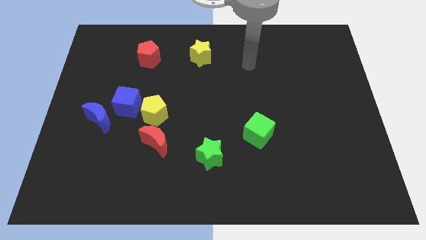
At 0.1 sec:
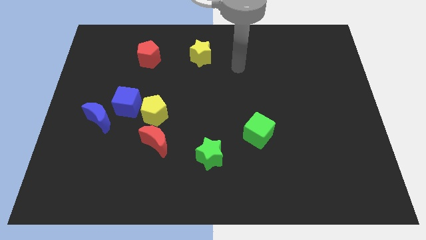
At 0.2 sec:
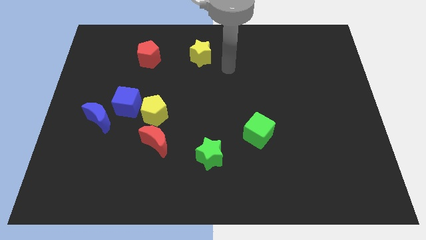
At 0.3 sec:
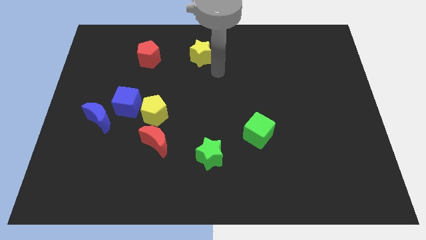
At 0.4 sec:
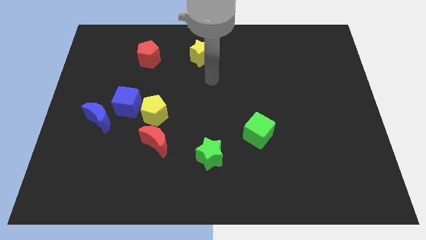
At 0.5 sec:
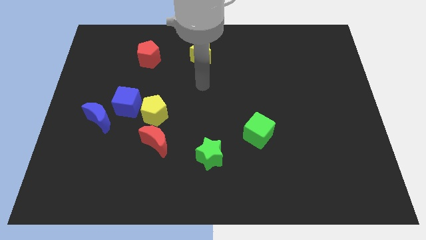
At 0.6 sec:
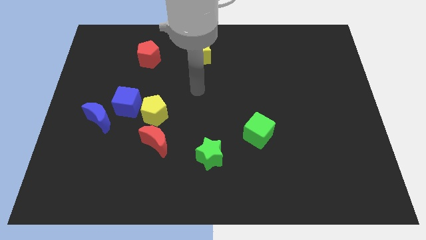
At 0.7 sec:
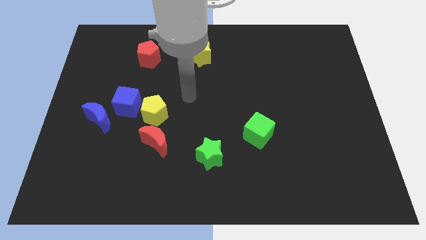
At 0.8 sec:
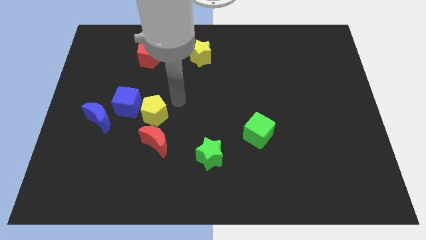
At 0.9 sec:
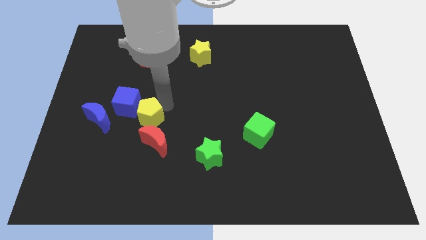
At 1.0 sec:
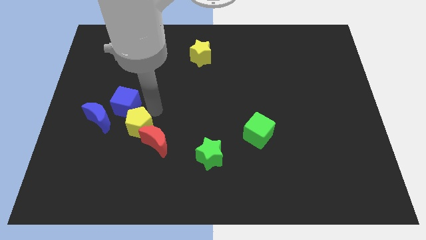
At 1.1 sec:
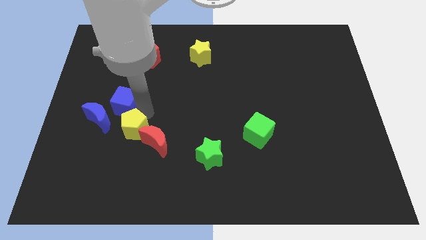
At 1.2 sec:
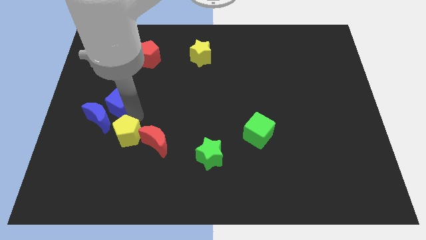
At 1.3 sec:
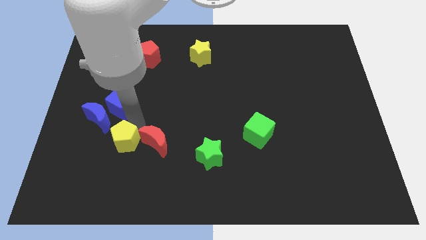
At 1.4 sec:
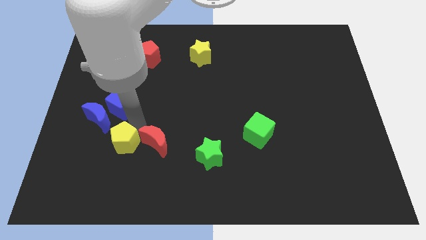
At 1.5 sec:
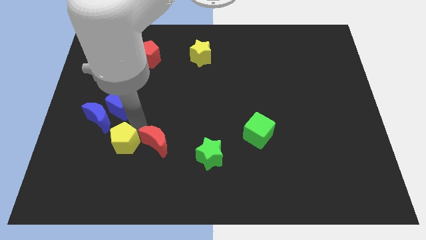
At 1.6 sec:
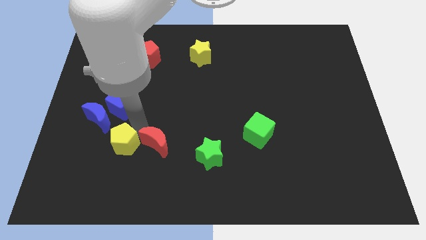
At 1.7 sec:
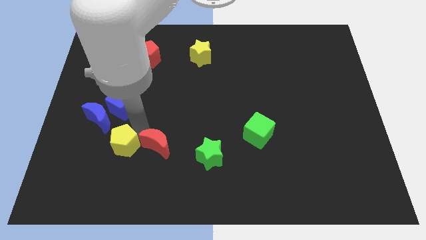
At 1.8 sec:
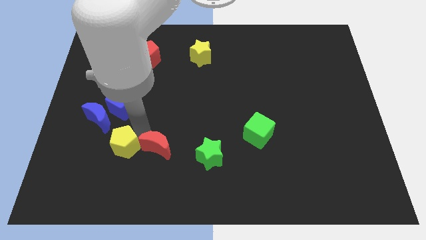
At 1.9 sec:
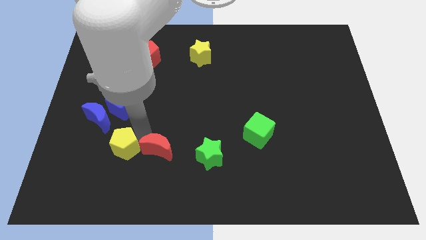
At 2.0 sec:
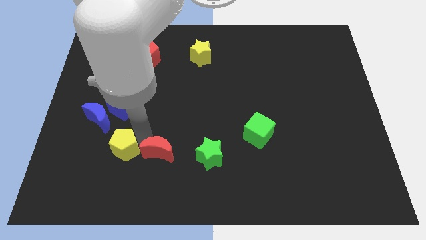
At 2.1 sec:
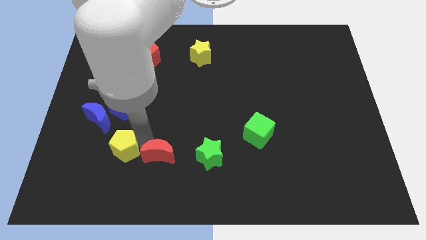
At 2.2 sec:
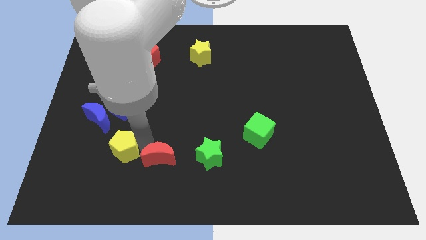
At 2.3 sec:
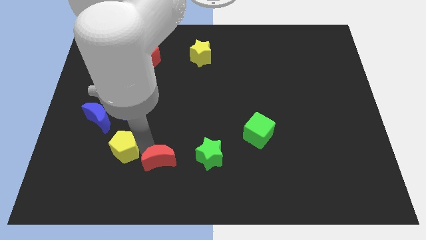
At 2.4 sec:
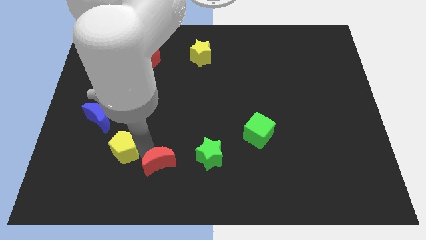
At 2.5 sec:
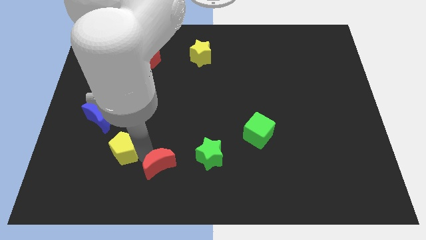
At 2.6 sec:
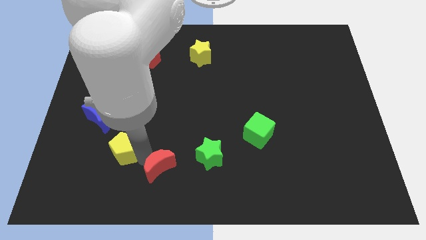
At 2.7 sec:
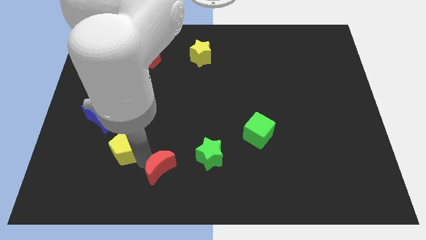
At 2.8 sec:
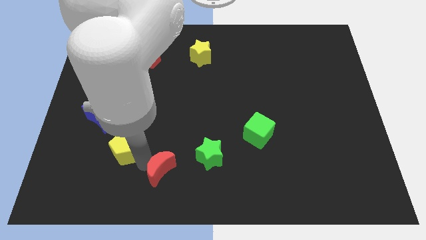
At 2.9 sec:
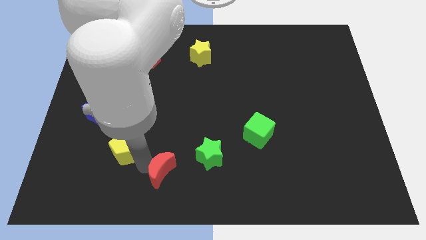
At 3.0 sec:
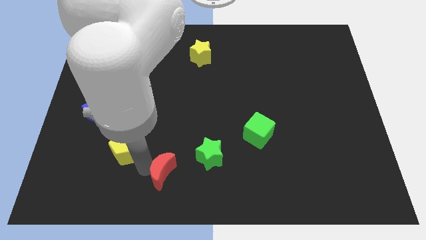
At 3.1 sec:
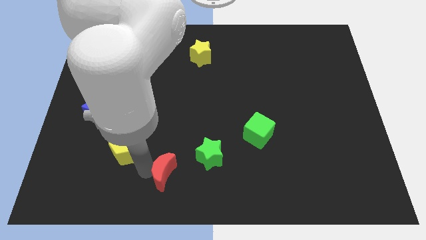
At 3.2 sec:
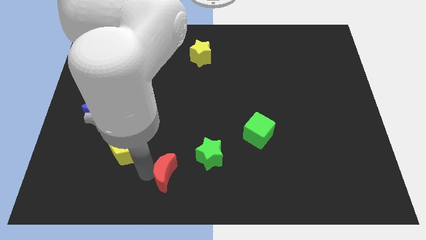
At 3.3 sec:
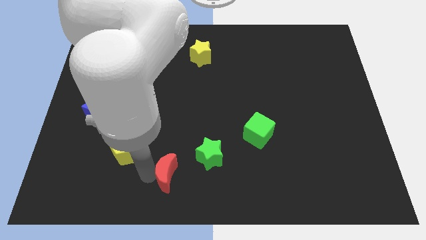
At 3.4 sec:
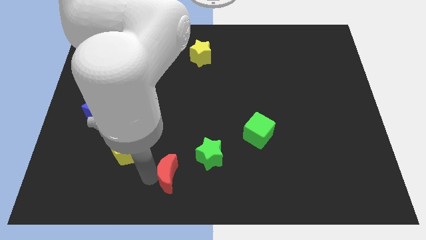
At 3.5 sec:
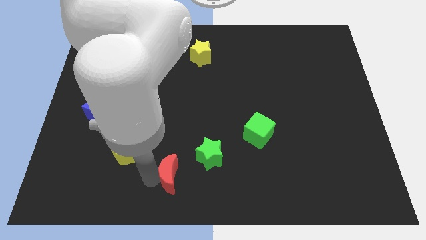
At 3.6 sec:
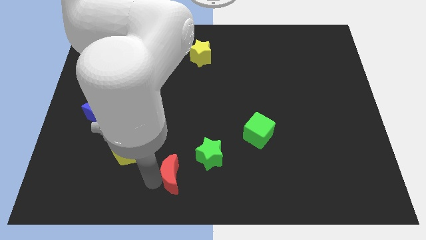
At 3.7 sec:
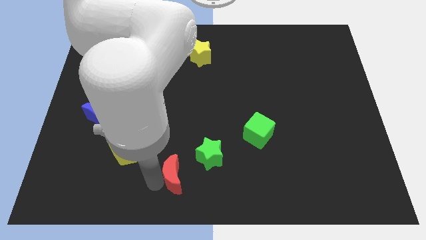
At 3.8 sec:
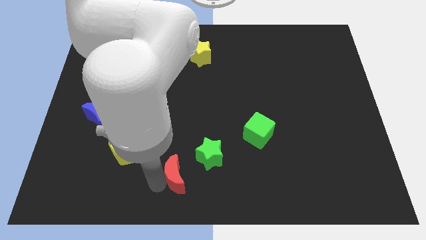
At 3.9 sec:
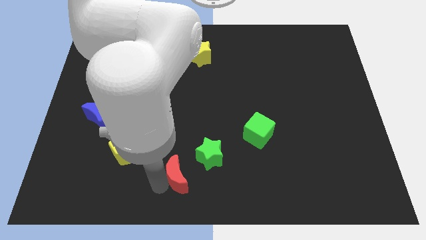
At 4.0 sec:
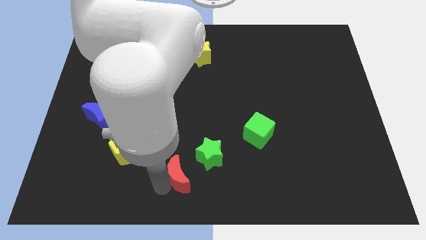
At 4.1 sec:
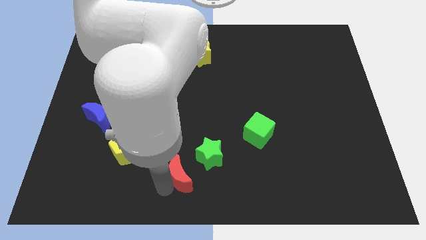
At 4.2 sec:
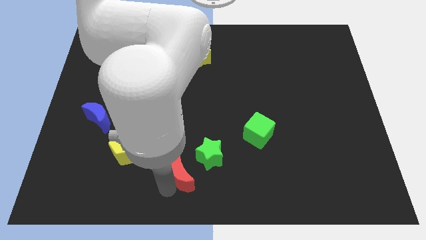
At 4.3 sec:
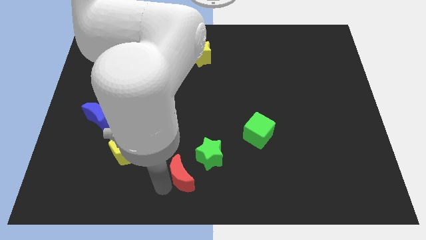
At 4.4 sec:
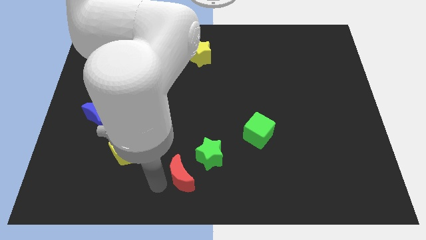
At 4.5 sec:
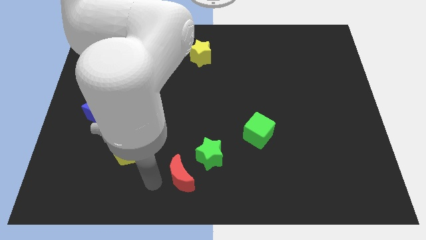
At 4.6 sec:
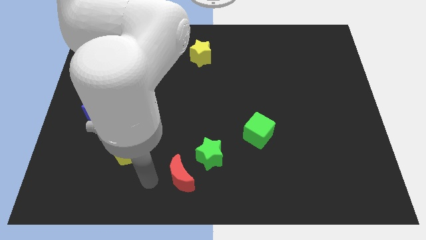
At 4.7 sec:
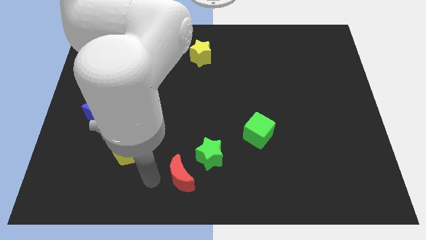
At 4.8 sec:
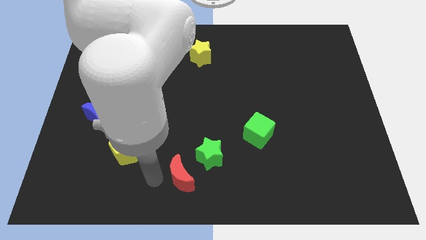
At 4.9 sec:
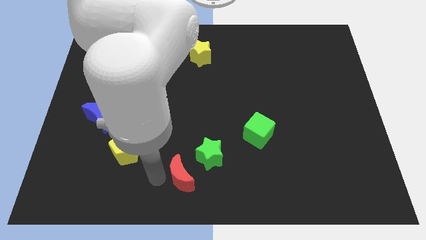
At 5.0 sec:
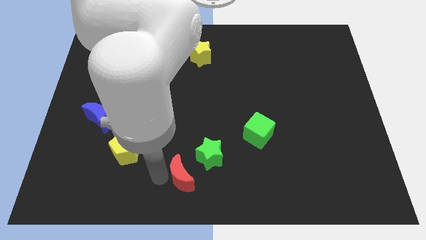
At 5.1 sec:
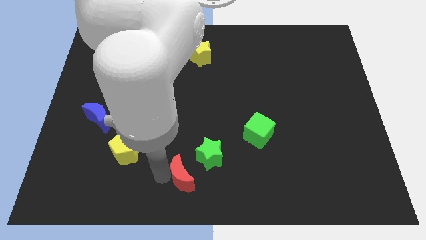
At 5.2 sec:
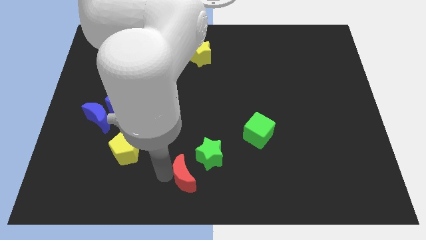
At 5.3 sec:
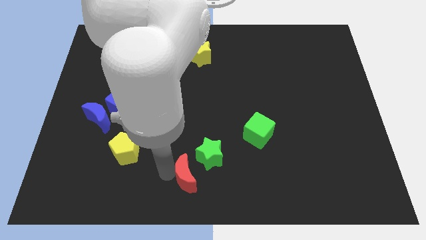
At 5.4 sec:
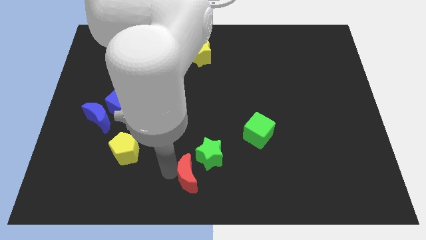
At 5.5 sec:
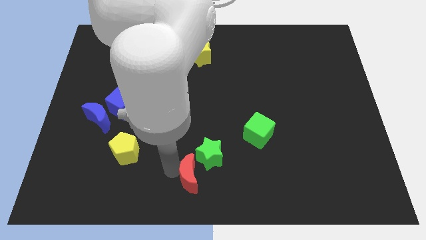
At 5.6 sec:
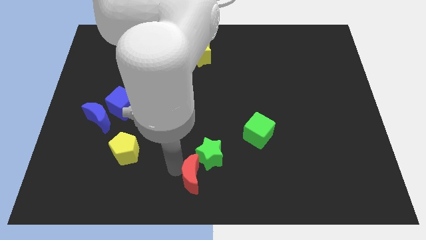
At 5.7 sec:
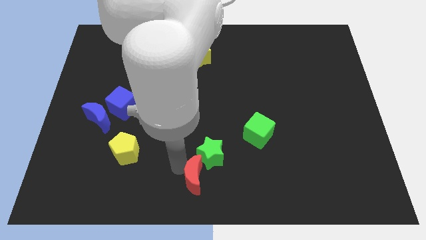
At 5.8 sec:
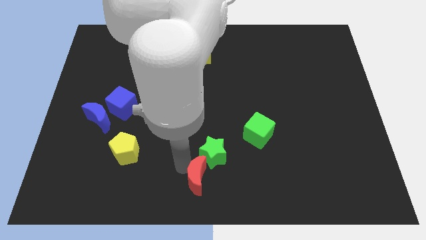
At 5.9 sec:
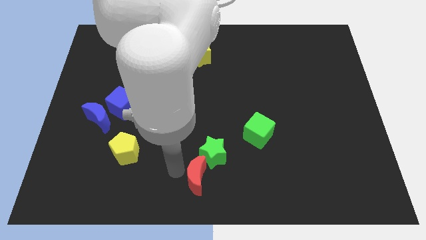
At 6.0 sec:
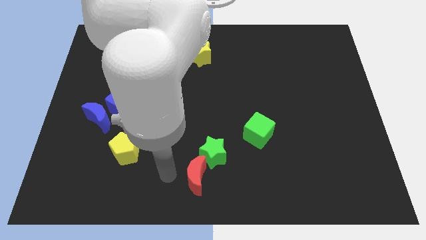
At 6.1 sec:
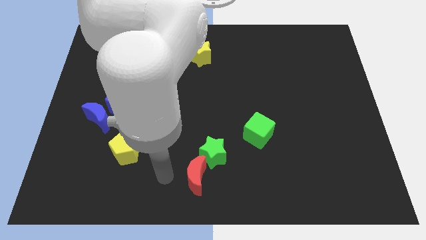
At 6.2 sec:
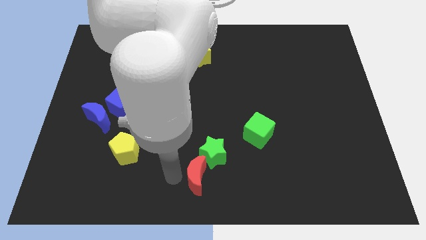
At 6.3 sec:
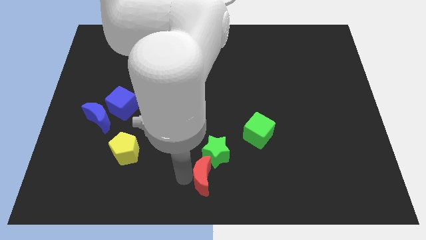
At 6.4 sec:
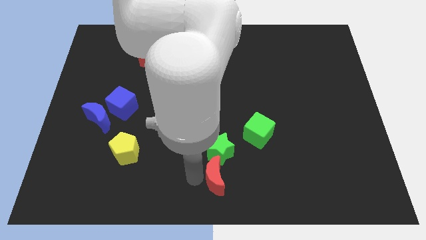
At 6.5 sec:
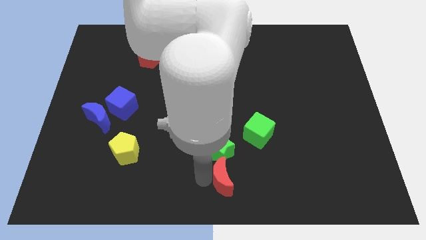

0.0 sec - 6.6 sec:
slide the red moon to the bottom right side of the green star

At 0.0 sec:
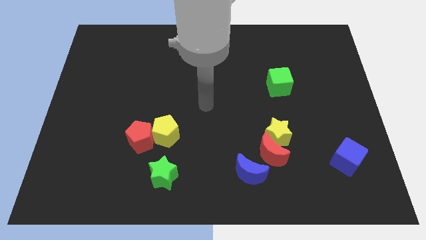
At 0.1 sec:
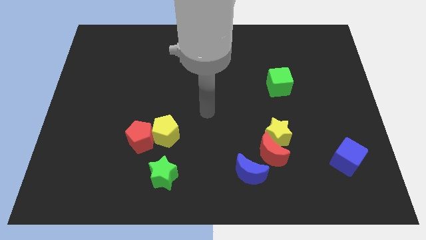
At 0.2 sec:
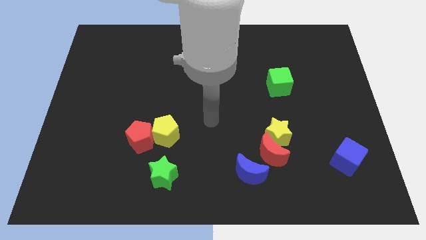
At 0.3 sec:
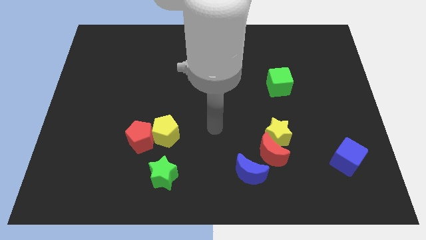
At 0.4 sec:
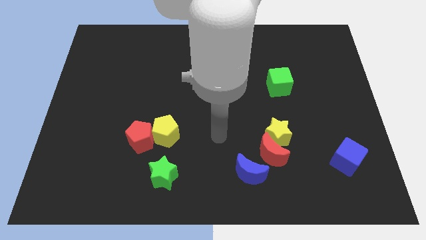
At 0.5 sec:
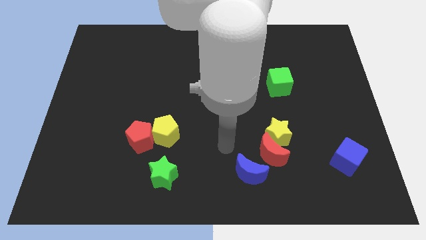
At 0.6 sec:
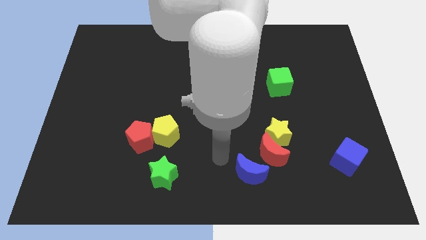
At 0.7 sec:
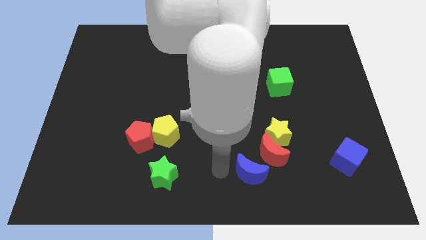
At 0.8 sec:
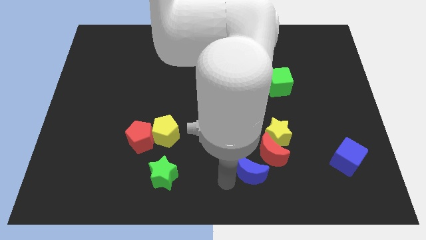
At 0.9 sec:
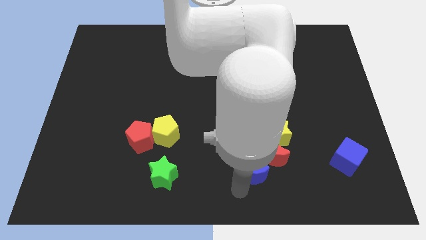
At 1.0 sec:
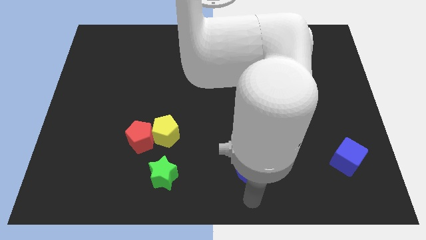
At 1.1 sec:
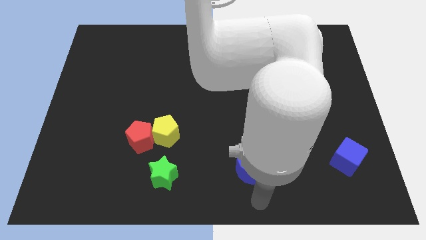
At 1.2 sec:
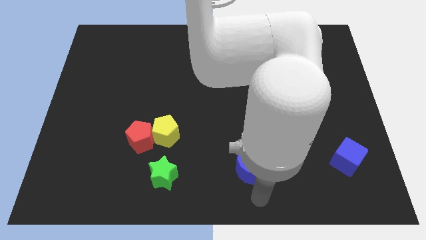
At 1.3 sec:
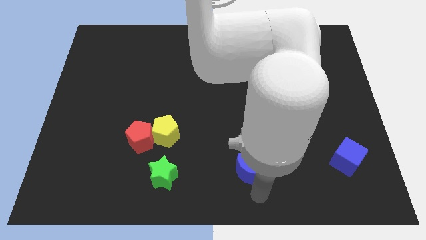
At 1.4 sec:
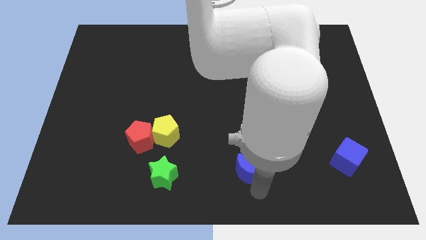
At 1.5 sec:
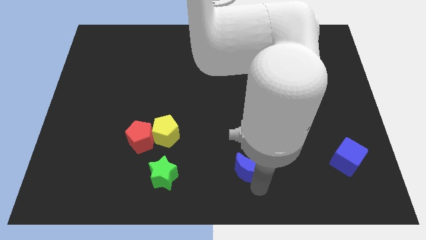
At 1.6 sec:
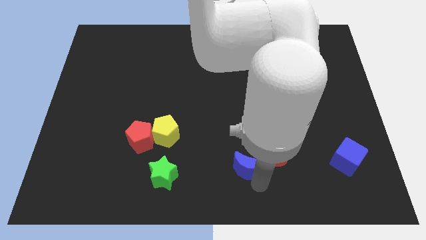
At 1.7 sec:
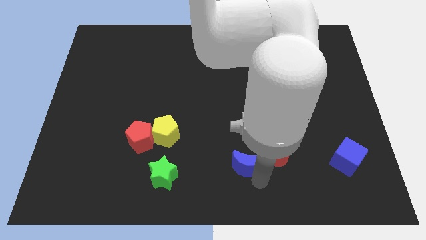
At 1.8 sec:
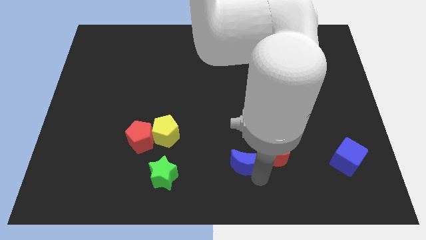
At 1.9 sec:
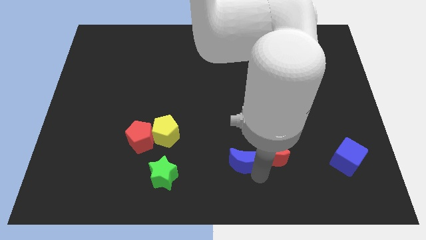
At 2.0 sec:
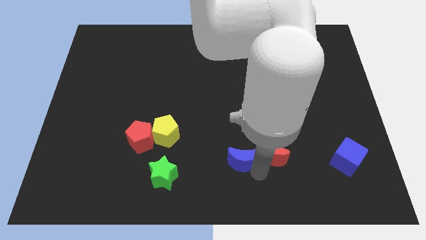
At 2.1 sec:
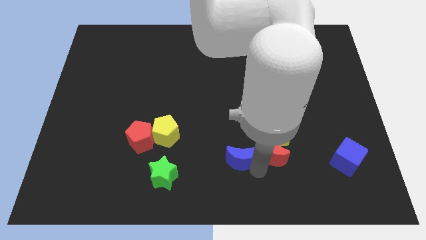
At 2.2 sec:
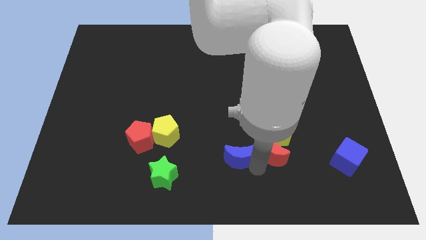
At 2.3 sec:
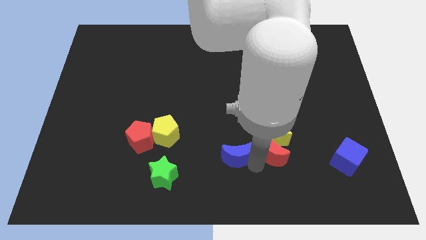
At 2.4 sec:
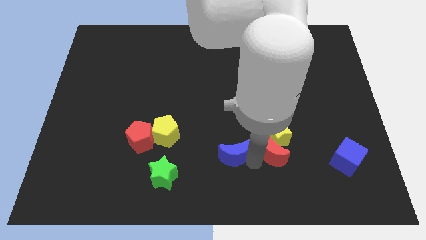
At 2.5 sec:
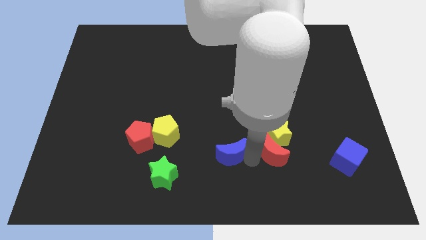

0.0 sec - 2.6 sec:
push the blue moon to the left of the yellow star
